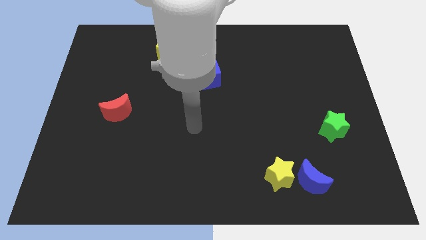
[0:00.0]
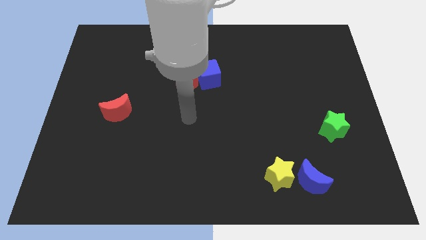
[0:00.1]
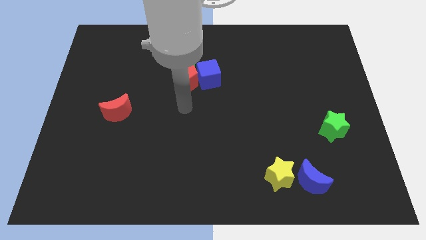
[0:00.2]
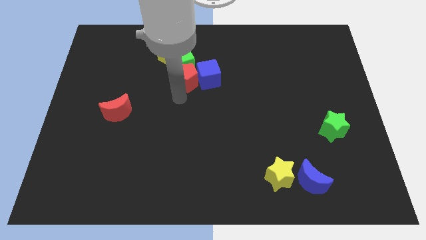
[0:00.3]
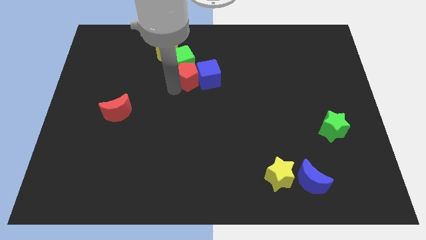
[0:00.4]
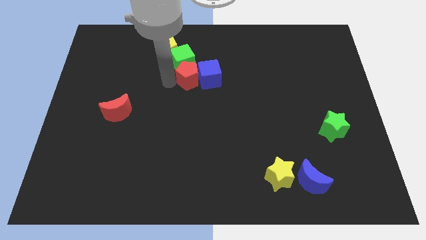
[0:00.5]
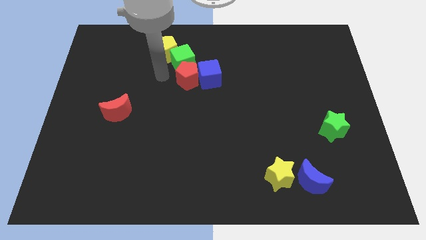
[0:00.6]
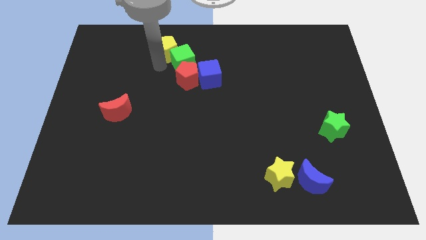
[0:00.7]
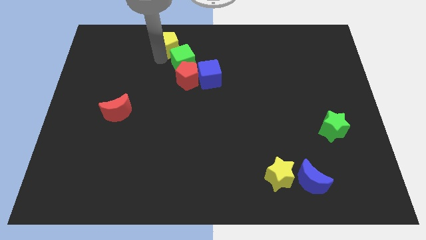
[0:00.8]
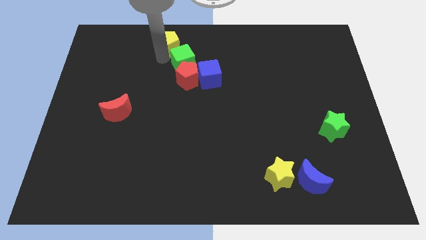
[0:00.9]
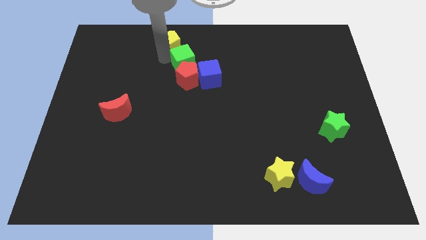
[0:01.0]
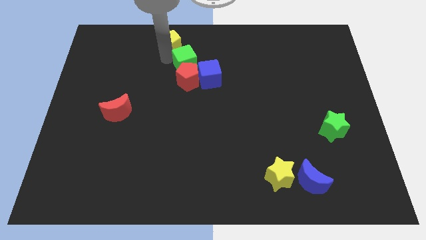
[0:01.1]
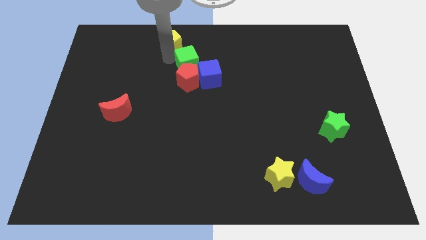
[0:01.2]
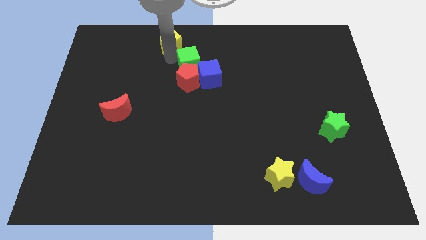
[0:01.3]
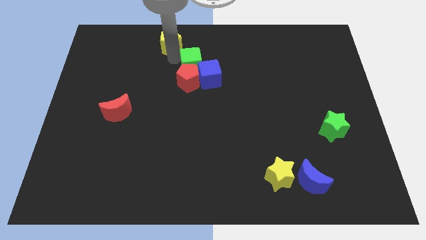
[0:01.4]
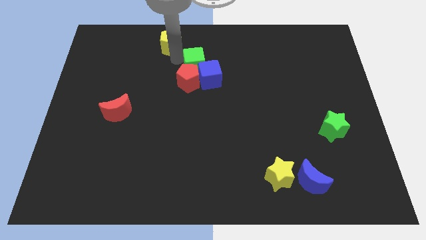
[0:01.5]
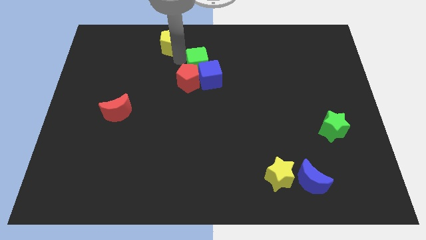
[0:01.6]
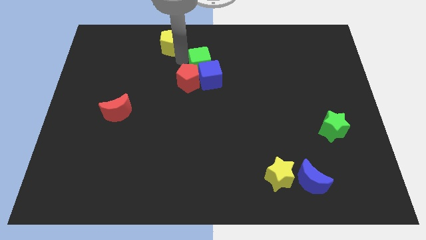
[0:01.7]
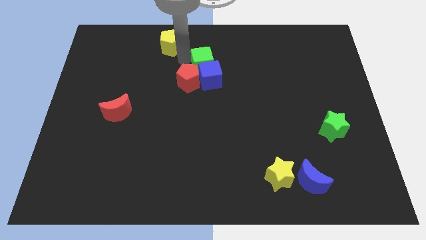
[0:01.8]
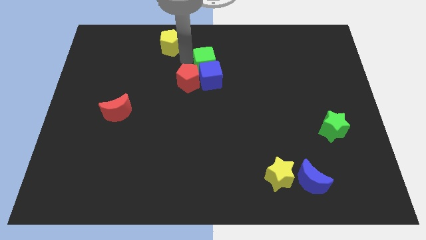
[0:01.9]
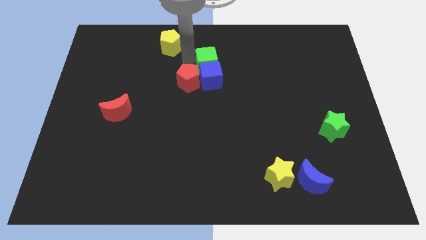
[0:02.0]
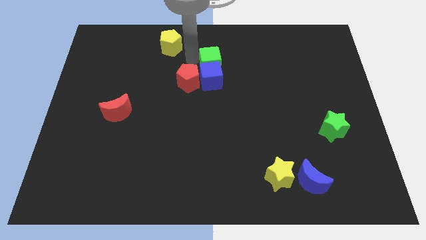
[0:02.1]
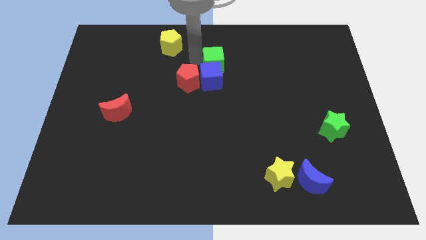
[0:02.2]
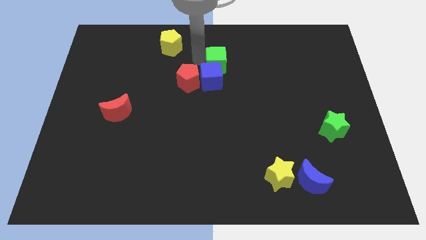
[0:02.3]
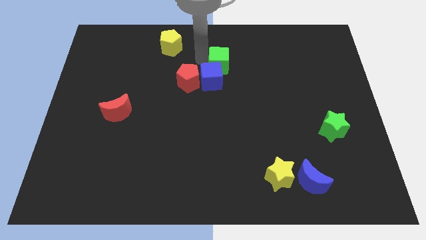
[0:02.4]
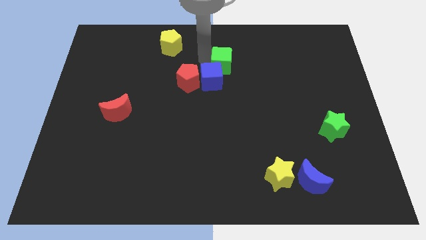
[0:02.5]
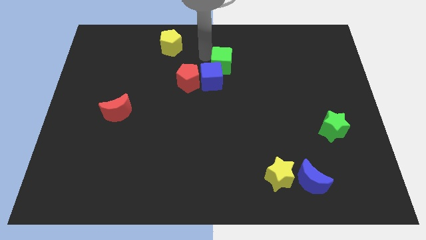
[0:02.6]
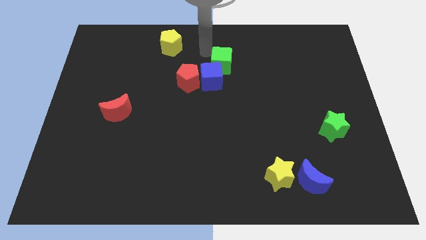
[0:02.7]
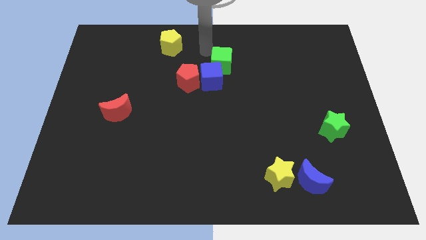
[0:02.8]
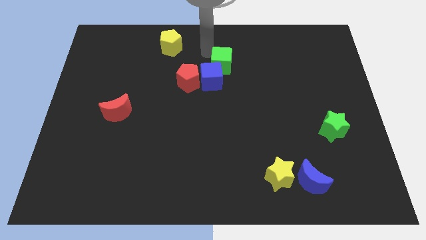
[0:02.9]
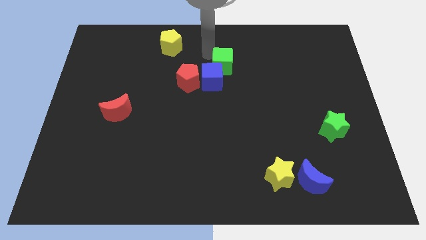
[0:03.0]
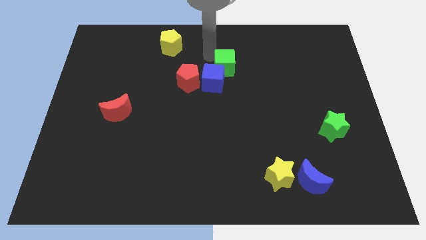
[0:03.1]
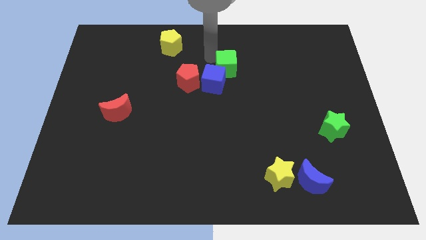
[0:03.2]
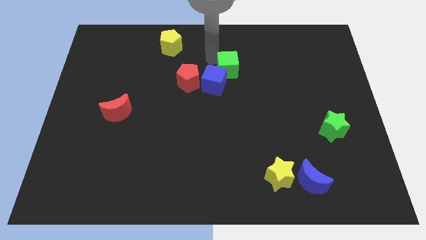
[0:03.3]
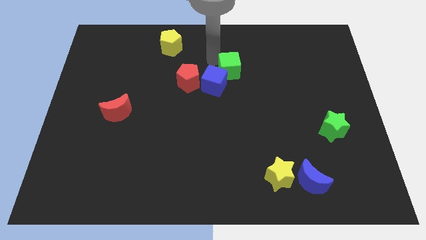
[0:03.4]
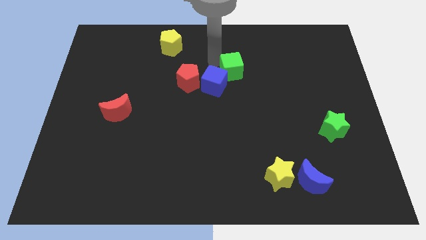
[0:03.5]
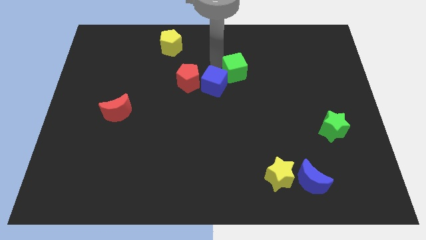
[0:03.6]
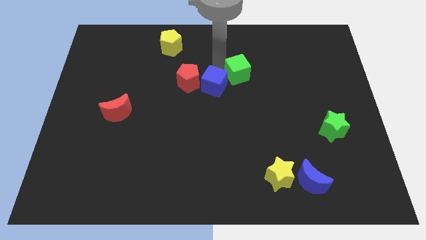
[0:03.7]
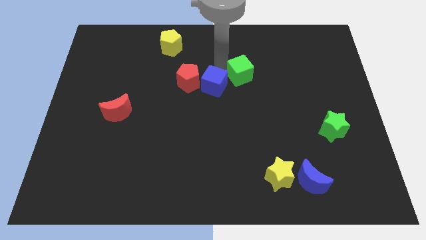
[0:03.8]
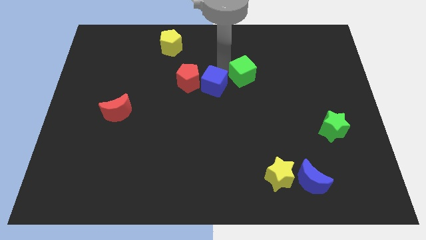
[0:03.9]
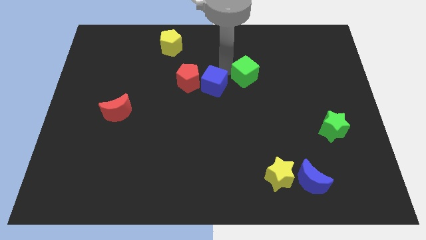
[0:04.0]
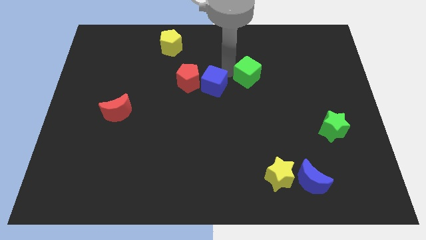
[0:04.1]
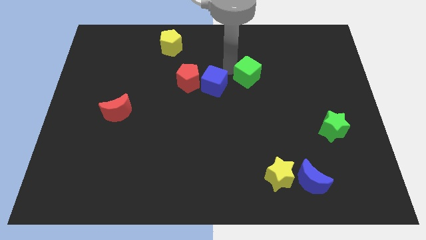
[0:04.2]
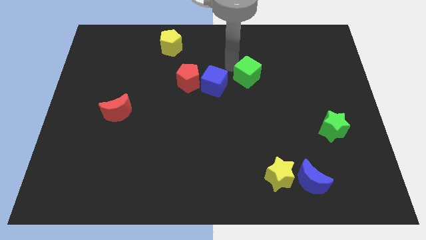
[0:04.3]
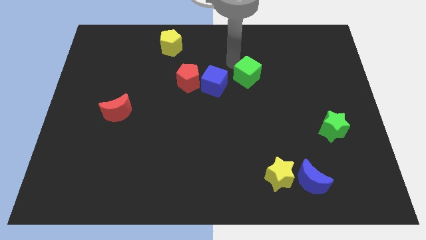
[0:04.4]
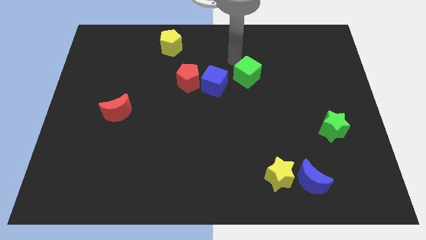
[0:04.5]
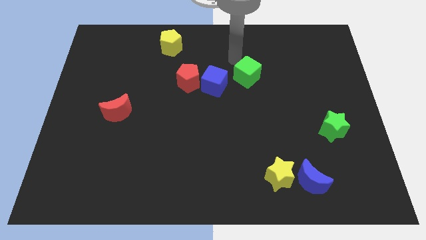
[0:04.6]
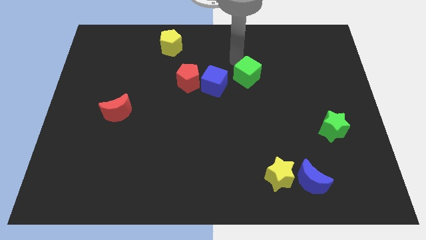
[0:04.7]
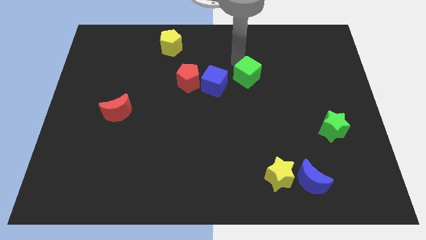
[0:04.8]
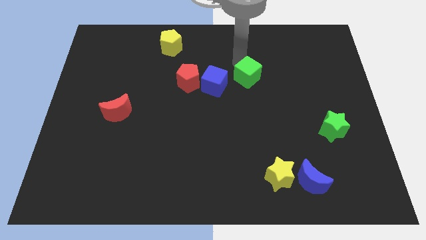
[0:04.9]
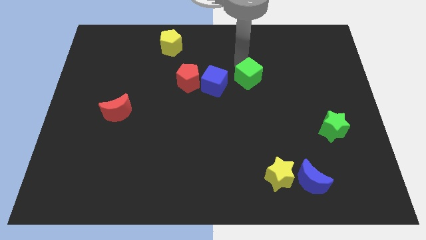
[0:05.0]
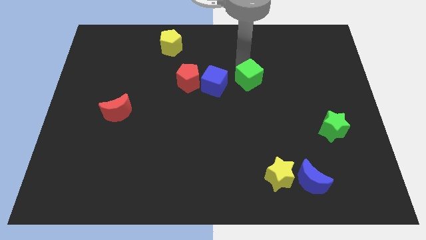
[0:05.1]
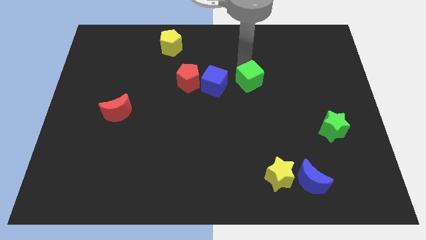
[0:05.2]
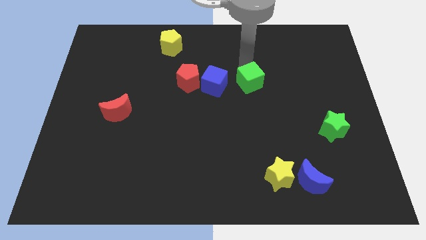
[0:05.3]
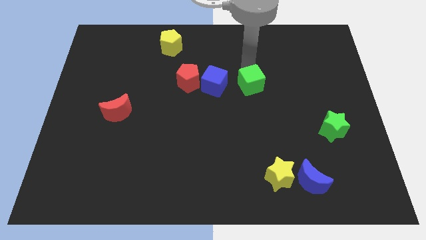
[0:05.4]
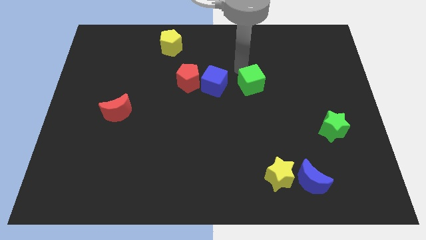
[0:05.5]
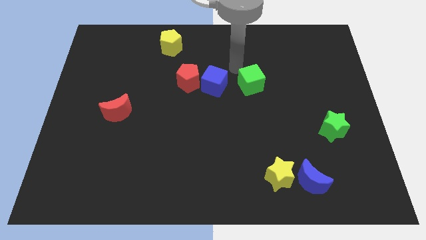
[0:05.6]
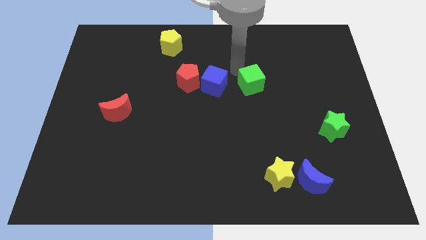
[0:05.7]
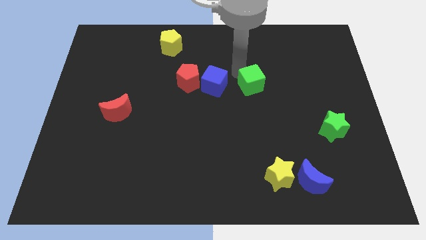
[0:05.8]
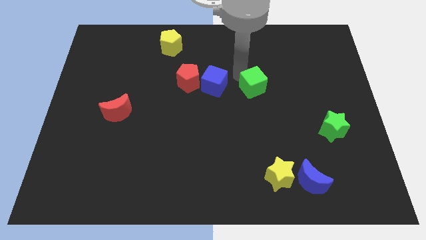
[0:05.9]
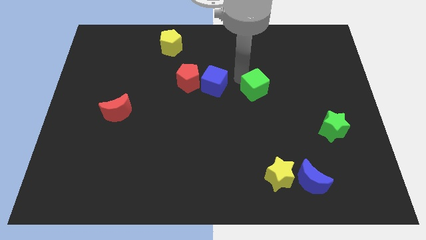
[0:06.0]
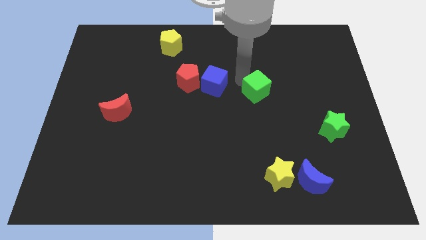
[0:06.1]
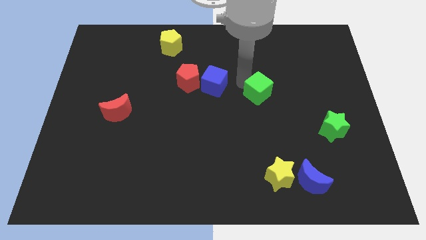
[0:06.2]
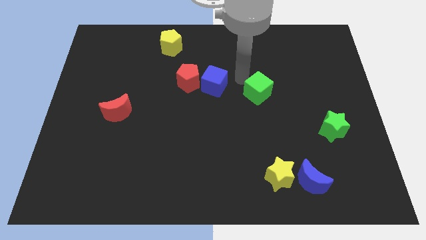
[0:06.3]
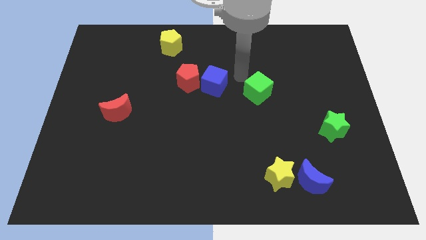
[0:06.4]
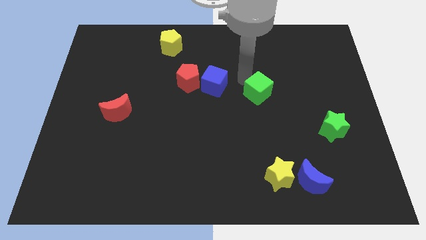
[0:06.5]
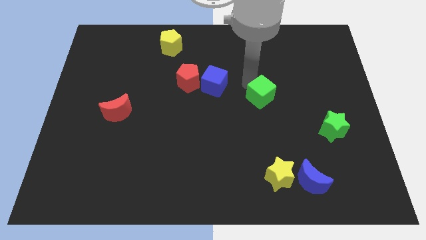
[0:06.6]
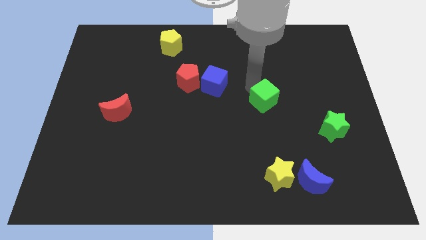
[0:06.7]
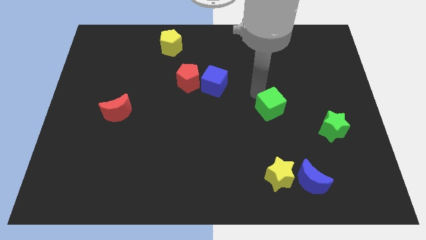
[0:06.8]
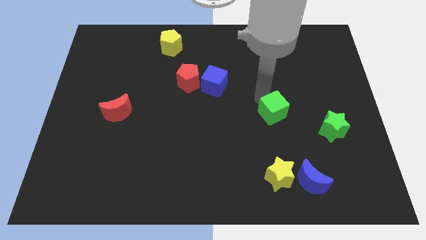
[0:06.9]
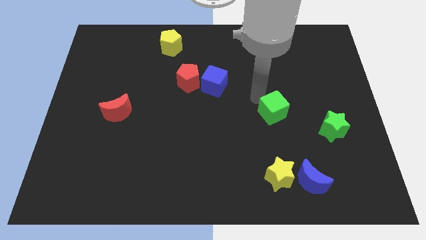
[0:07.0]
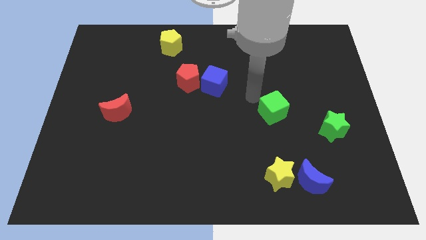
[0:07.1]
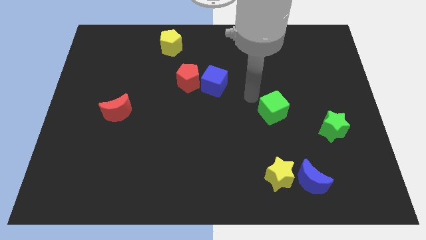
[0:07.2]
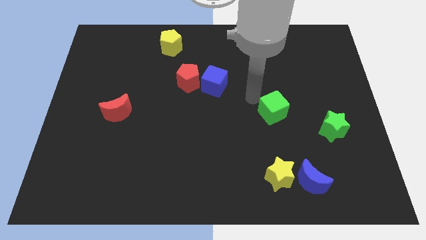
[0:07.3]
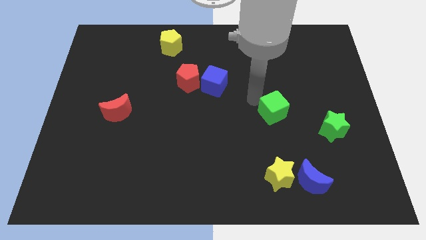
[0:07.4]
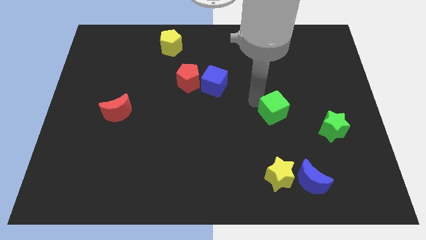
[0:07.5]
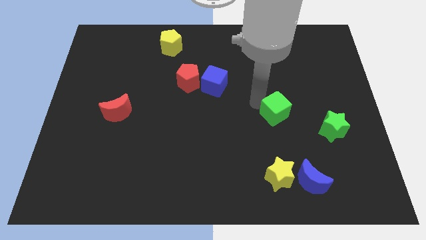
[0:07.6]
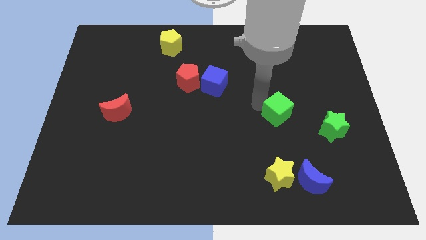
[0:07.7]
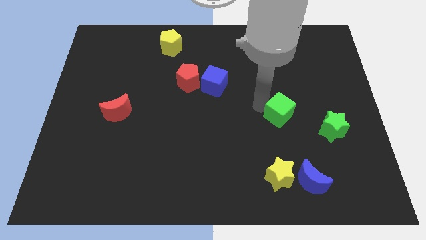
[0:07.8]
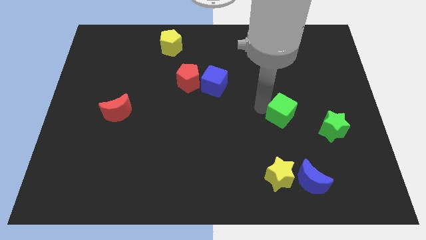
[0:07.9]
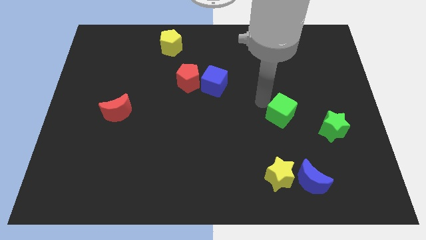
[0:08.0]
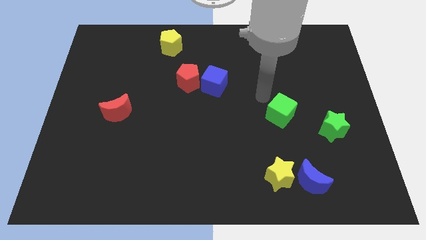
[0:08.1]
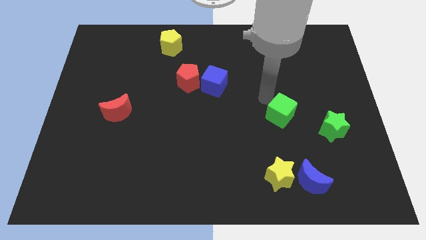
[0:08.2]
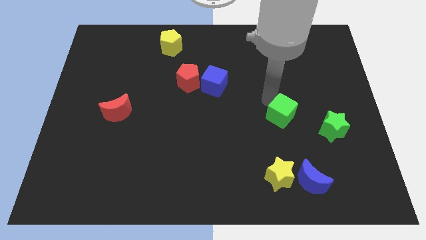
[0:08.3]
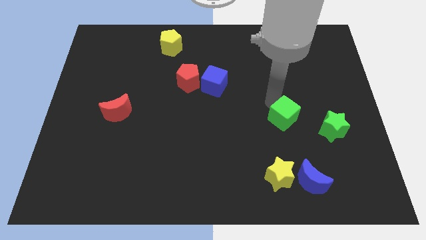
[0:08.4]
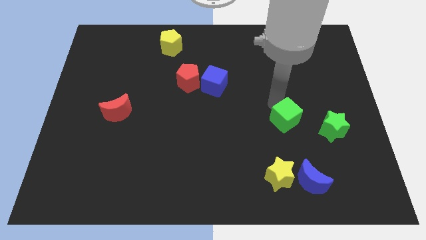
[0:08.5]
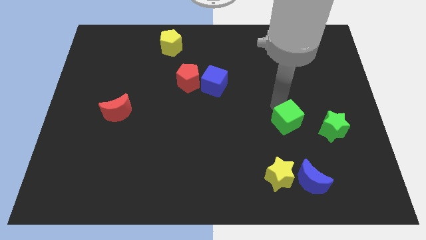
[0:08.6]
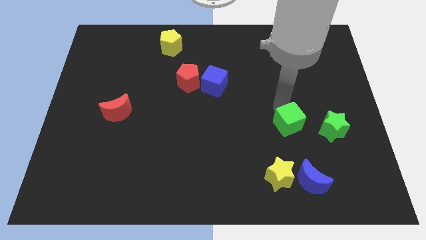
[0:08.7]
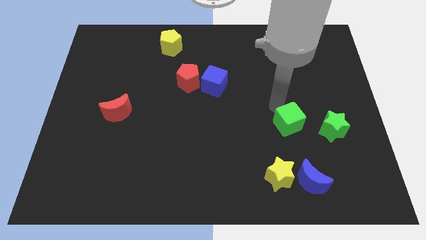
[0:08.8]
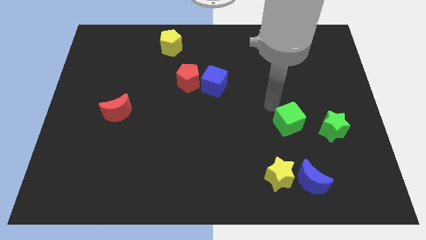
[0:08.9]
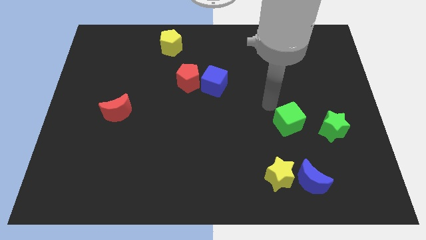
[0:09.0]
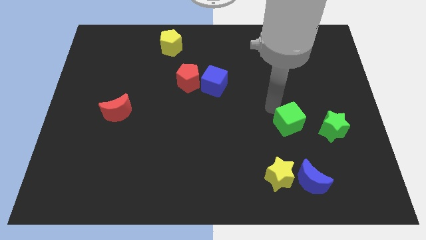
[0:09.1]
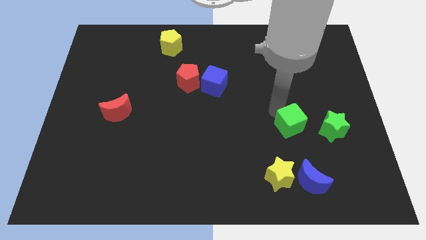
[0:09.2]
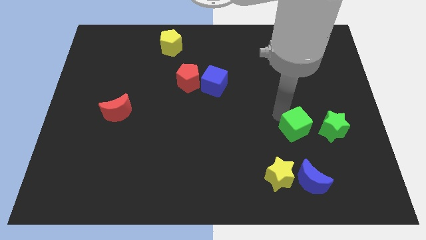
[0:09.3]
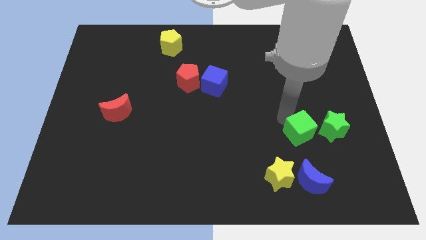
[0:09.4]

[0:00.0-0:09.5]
push the green cube diagonally down and to the left of the green star
